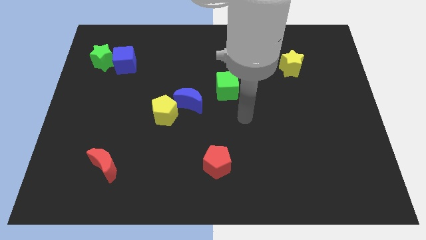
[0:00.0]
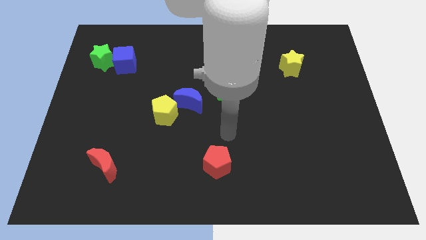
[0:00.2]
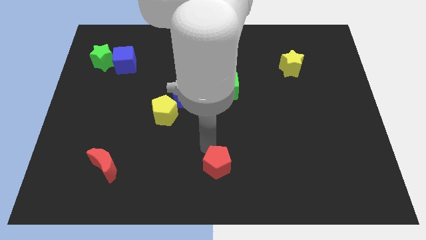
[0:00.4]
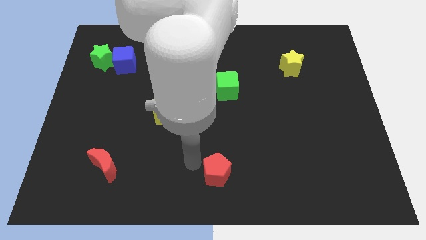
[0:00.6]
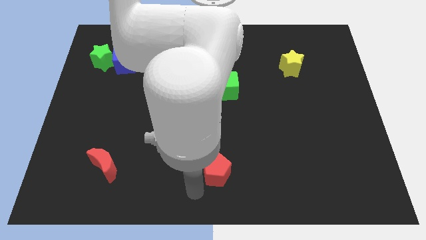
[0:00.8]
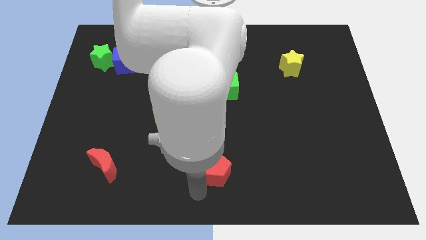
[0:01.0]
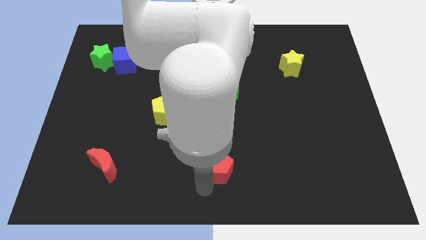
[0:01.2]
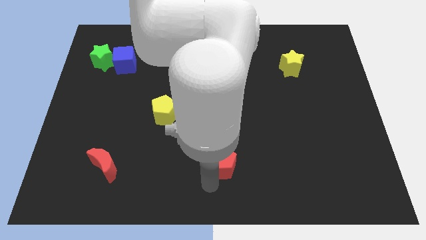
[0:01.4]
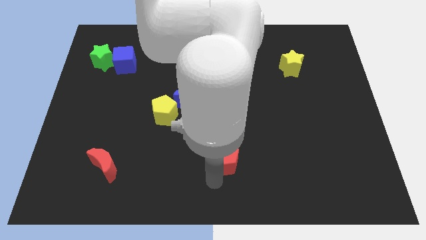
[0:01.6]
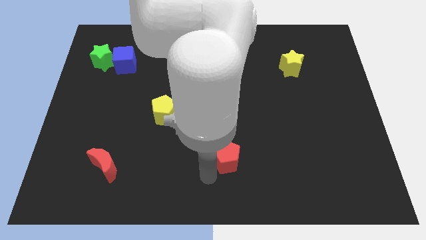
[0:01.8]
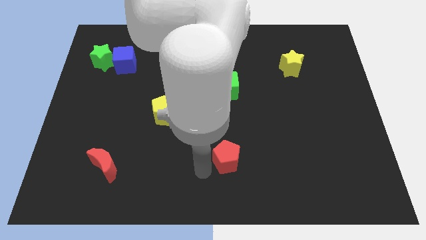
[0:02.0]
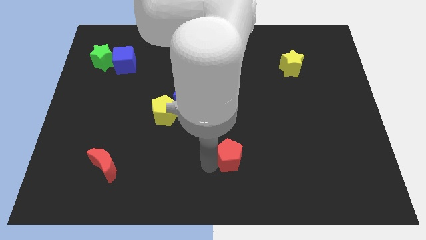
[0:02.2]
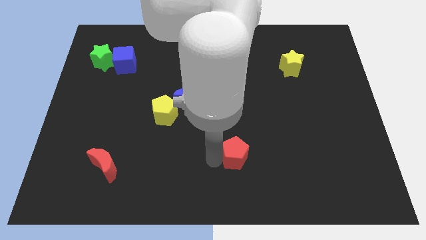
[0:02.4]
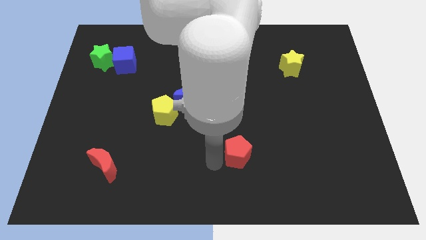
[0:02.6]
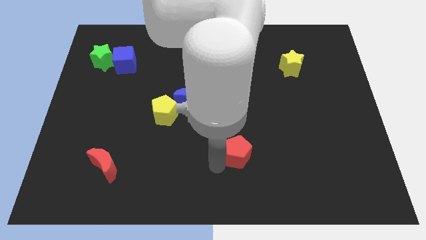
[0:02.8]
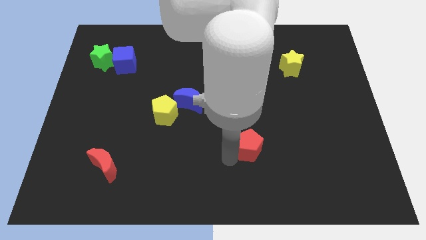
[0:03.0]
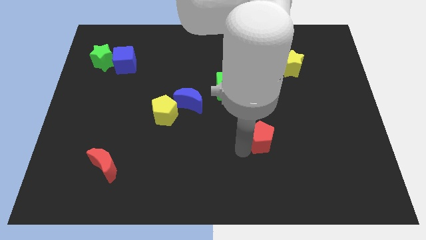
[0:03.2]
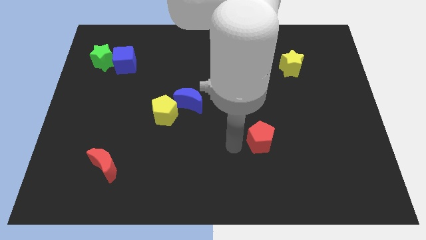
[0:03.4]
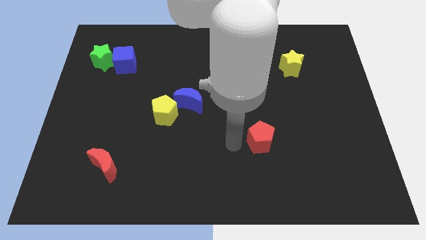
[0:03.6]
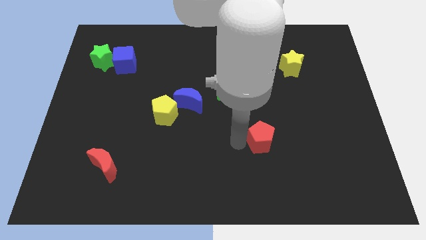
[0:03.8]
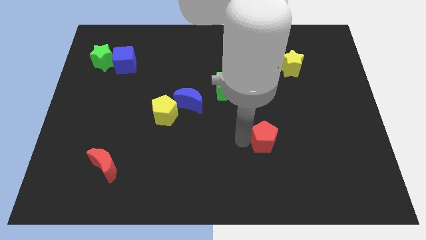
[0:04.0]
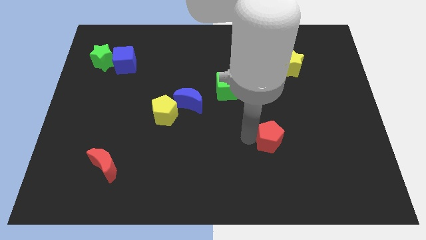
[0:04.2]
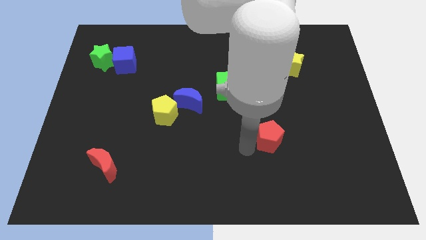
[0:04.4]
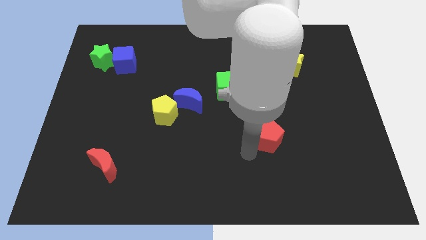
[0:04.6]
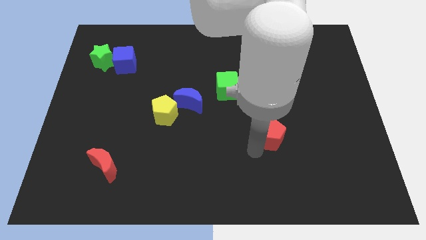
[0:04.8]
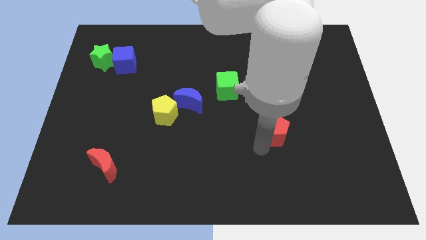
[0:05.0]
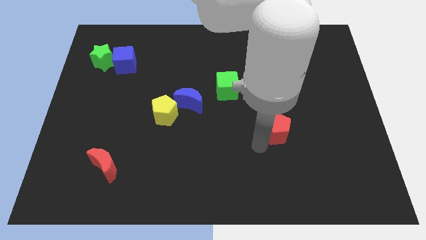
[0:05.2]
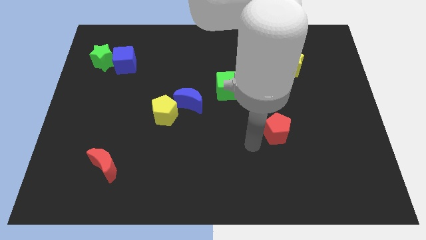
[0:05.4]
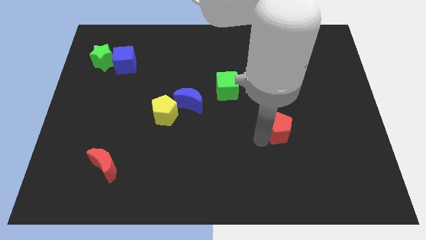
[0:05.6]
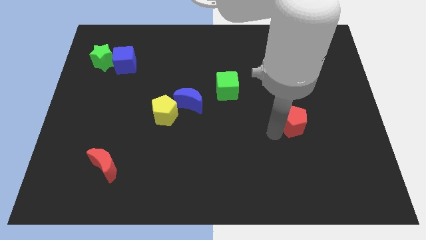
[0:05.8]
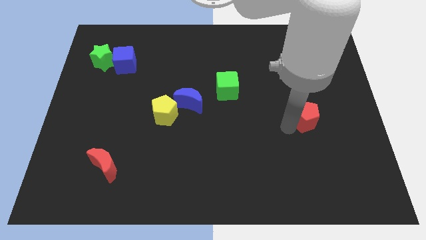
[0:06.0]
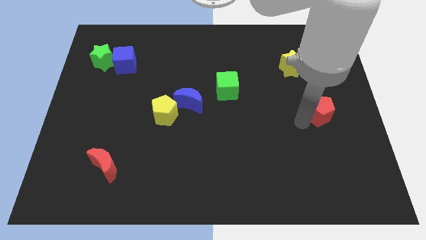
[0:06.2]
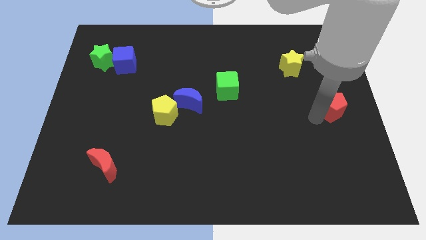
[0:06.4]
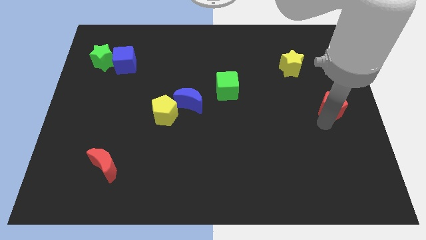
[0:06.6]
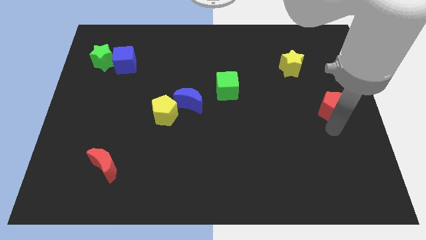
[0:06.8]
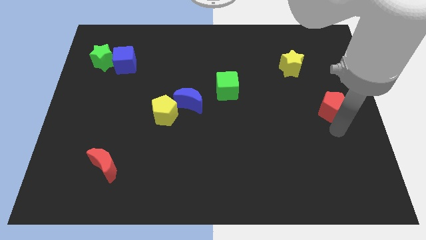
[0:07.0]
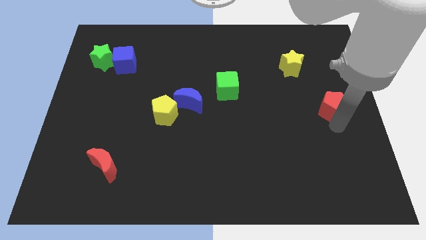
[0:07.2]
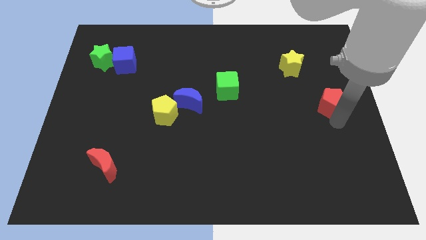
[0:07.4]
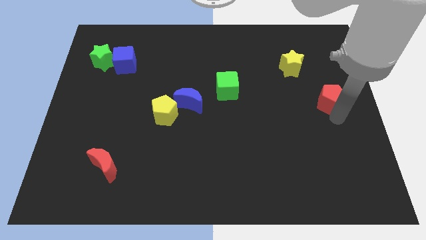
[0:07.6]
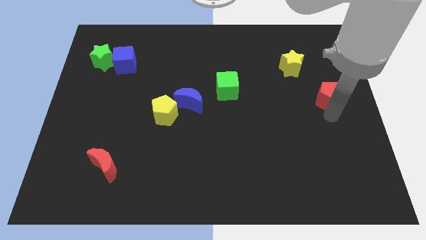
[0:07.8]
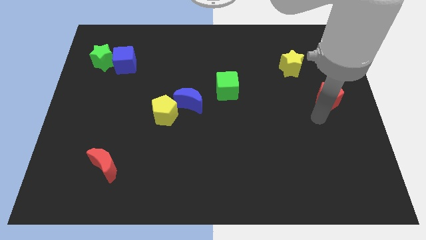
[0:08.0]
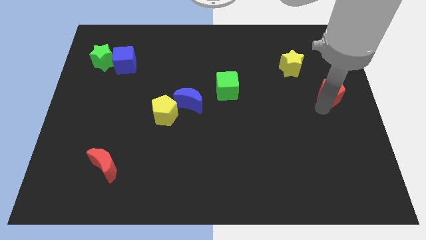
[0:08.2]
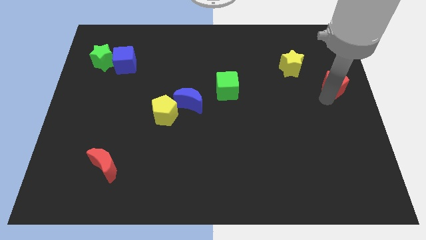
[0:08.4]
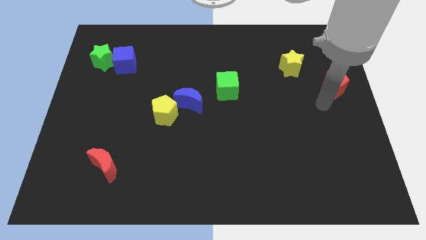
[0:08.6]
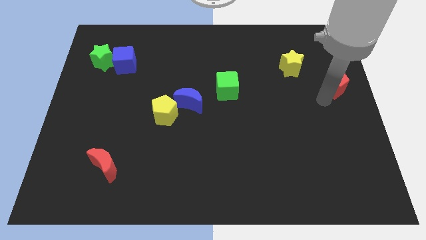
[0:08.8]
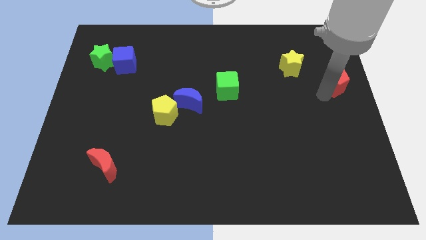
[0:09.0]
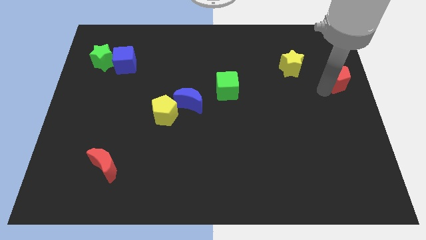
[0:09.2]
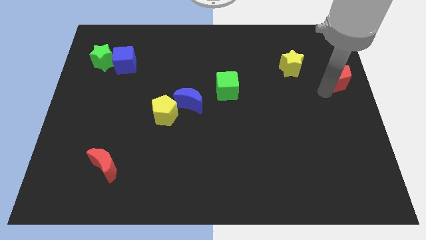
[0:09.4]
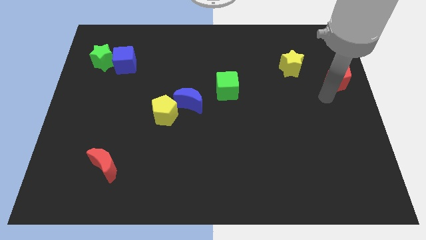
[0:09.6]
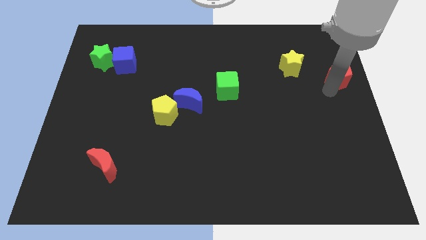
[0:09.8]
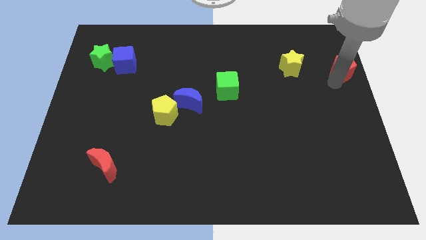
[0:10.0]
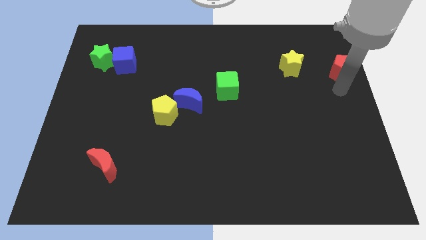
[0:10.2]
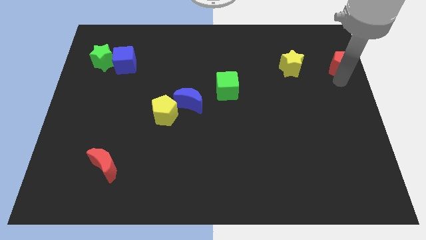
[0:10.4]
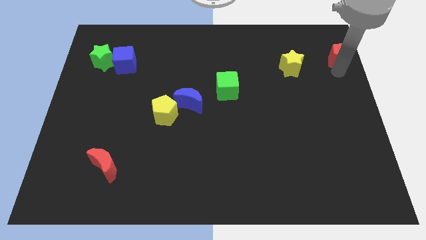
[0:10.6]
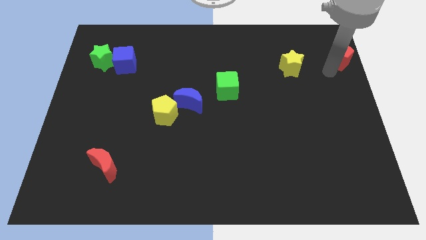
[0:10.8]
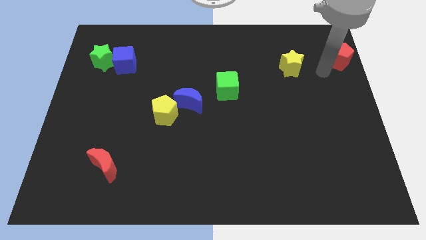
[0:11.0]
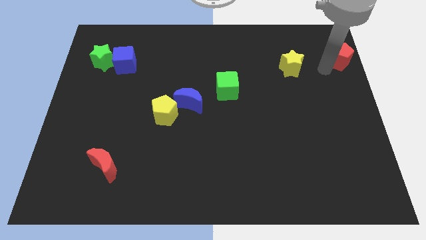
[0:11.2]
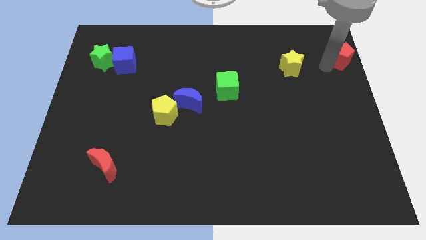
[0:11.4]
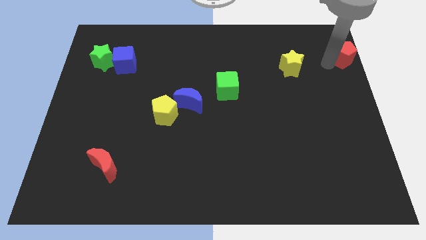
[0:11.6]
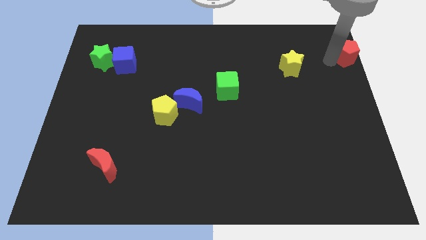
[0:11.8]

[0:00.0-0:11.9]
move the red pentagon to the top right corner
